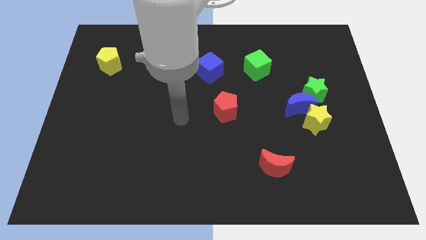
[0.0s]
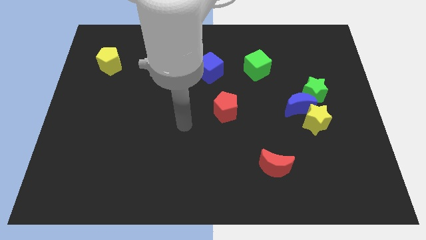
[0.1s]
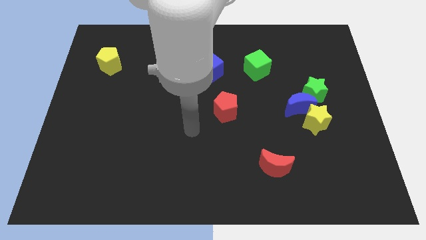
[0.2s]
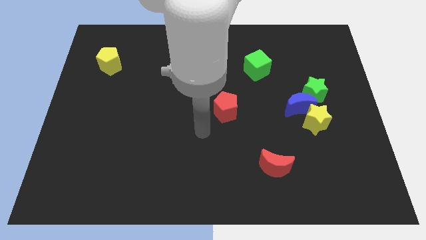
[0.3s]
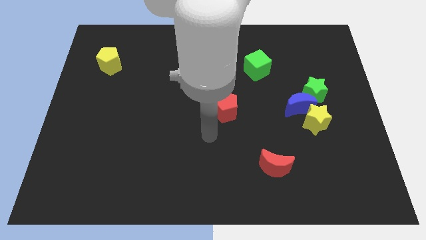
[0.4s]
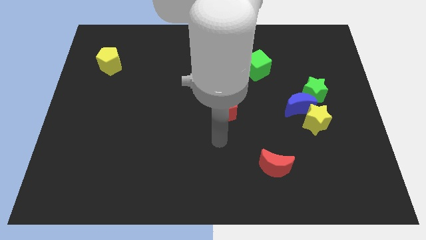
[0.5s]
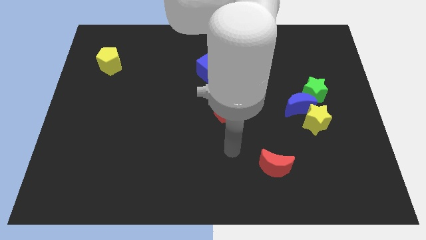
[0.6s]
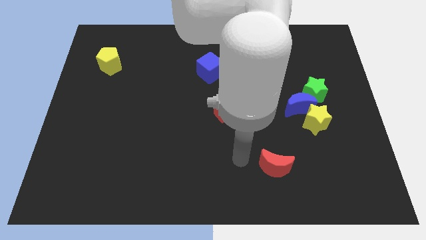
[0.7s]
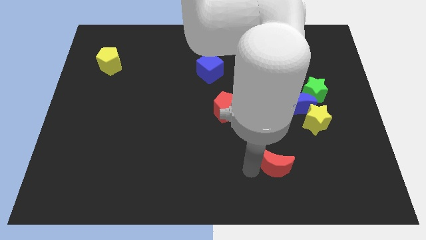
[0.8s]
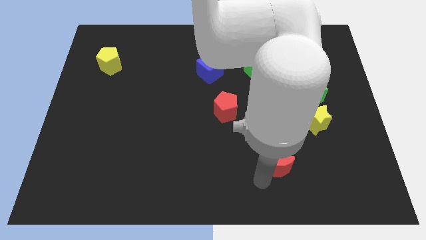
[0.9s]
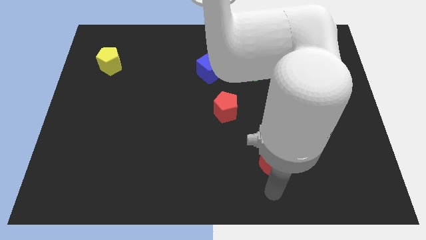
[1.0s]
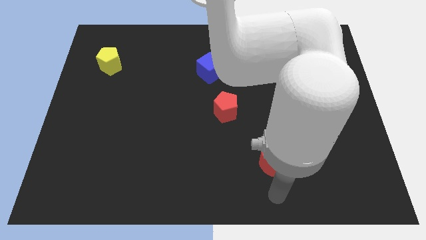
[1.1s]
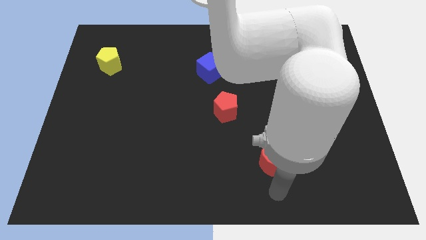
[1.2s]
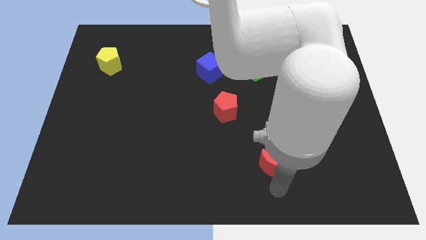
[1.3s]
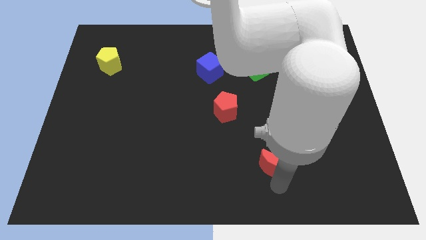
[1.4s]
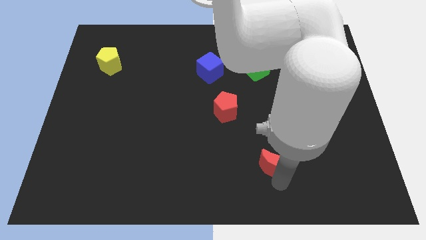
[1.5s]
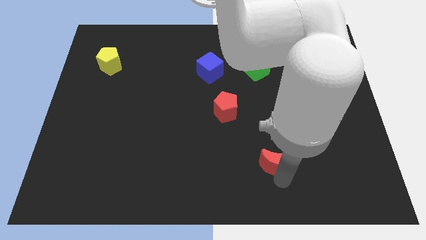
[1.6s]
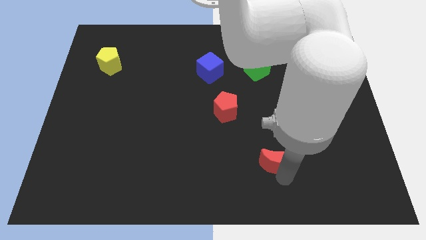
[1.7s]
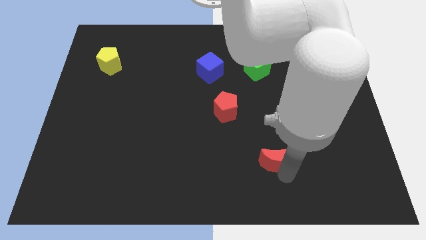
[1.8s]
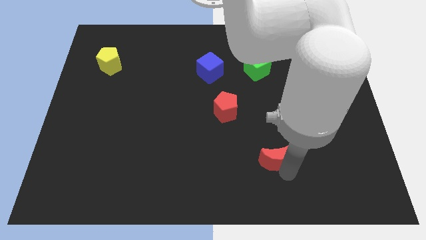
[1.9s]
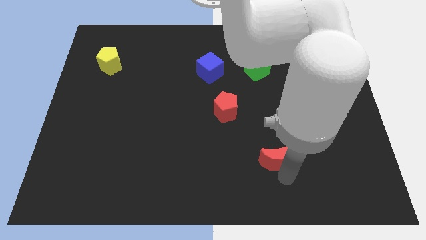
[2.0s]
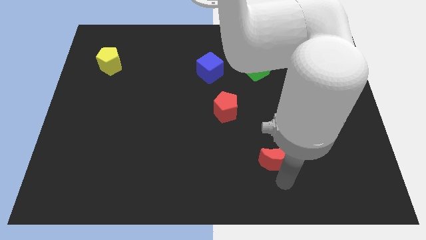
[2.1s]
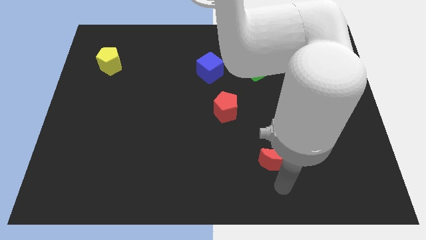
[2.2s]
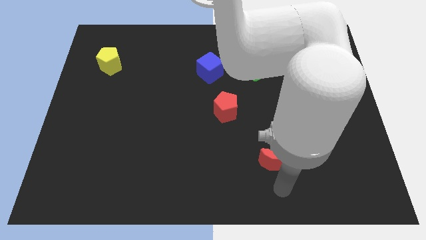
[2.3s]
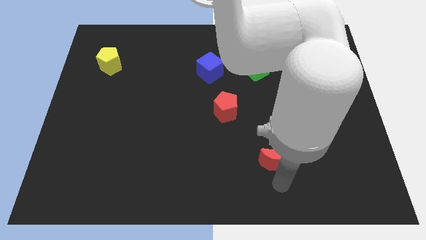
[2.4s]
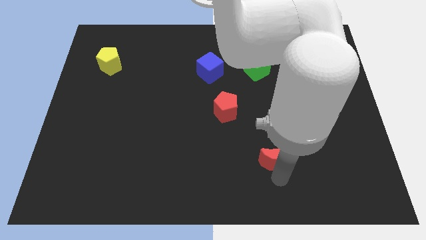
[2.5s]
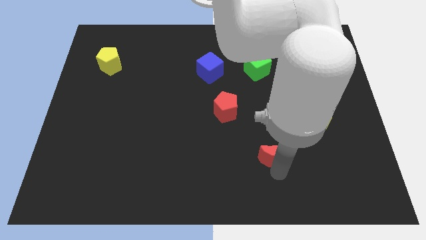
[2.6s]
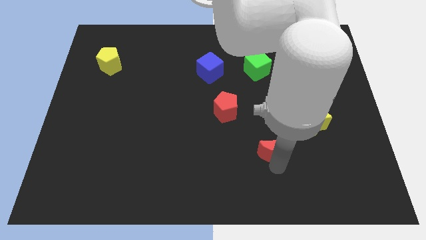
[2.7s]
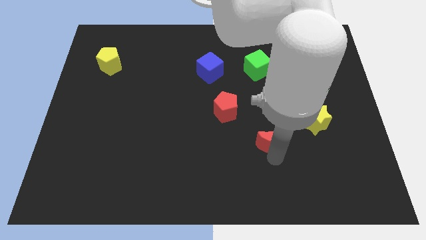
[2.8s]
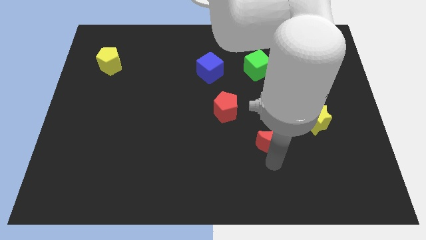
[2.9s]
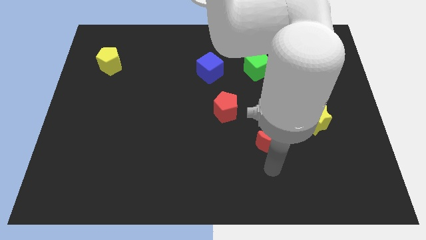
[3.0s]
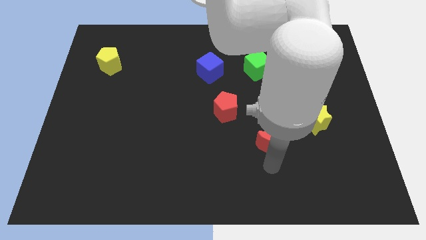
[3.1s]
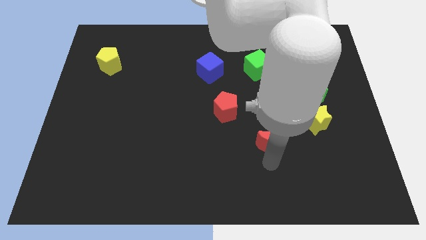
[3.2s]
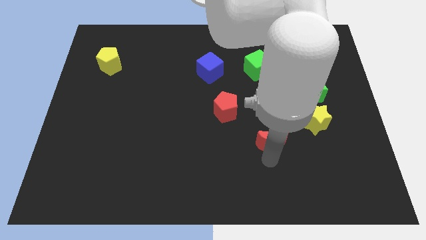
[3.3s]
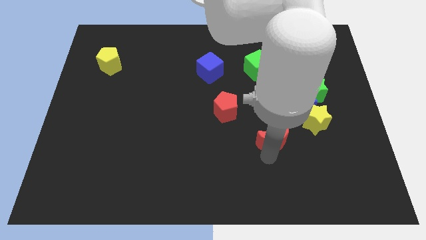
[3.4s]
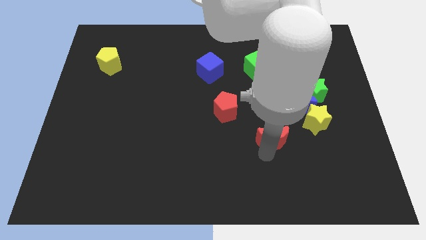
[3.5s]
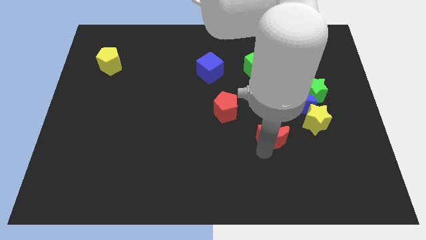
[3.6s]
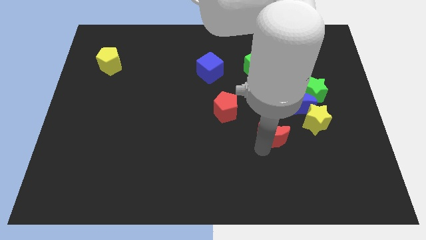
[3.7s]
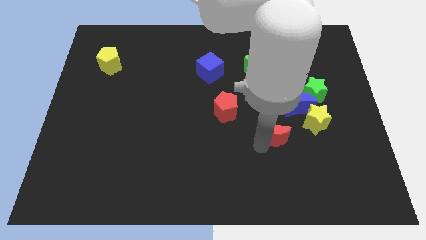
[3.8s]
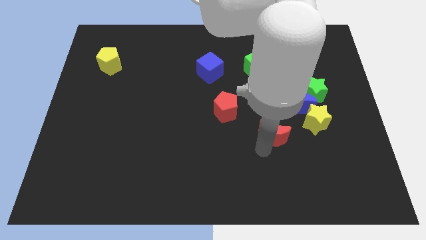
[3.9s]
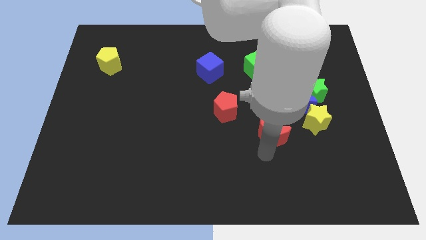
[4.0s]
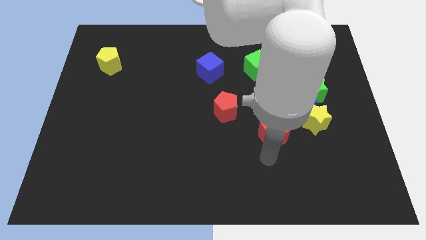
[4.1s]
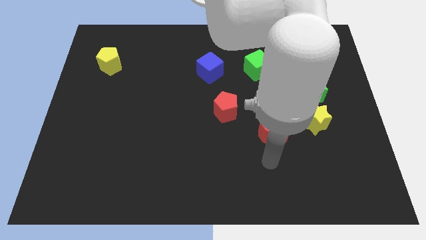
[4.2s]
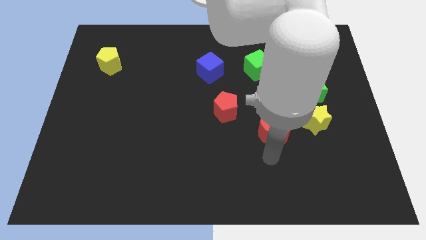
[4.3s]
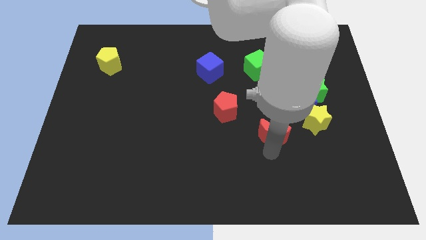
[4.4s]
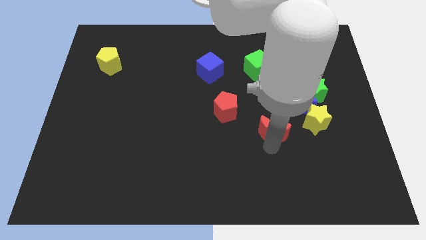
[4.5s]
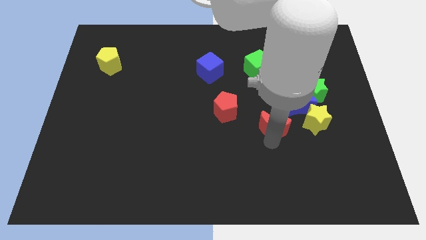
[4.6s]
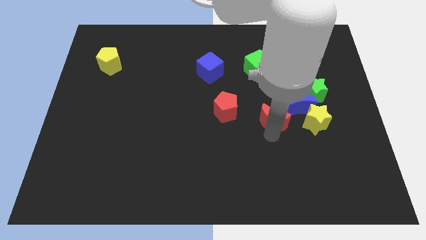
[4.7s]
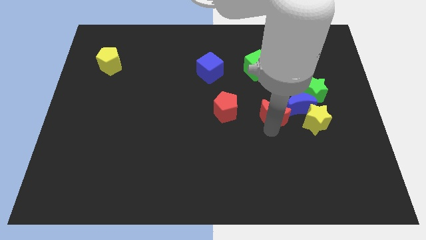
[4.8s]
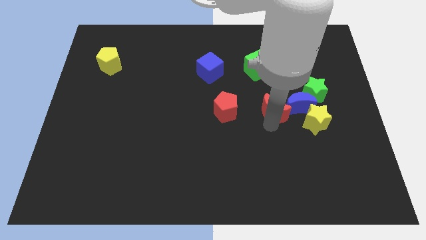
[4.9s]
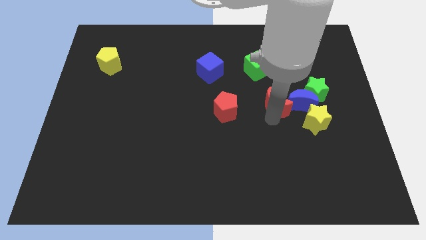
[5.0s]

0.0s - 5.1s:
put the red moon to the top left of the blue moon

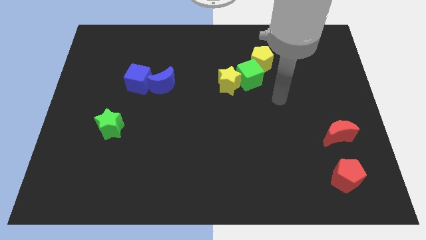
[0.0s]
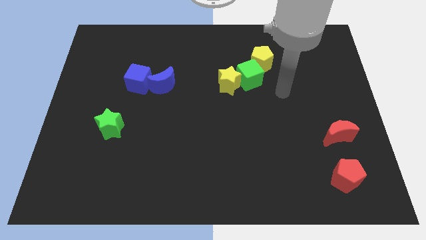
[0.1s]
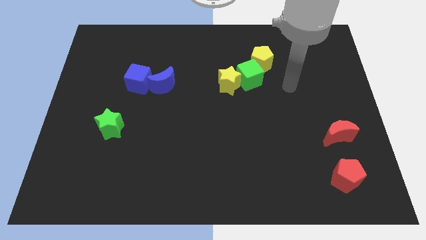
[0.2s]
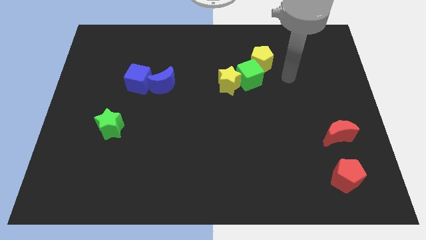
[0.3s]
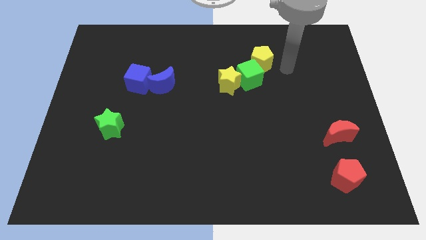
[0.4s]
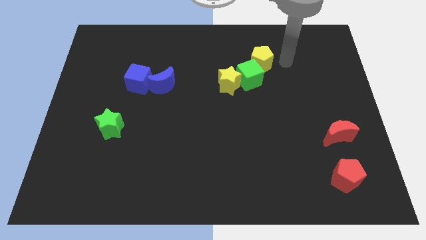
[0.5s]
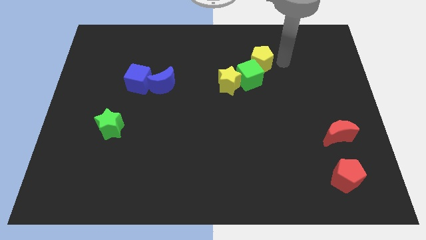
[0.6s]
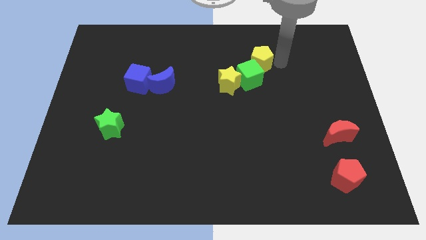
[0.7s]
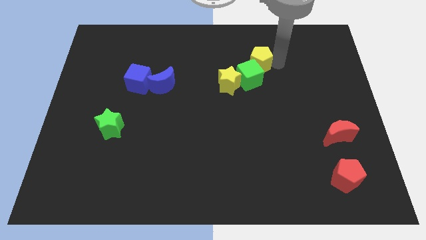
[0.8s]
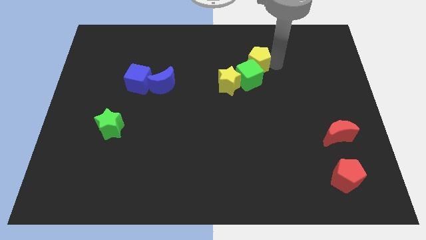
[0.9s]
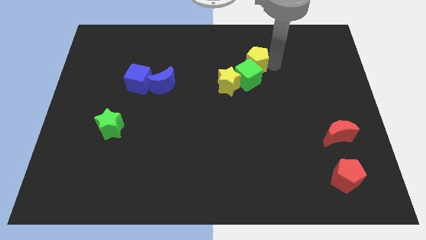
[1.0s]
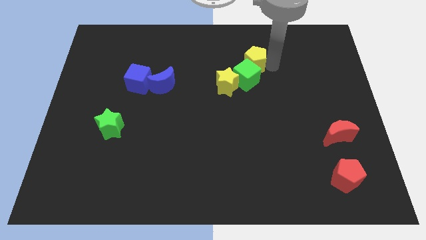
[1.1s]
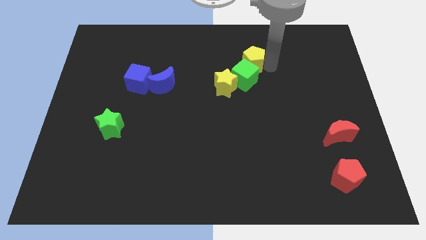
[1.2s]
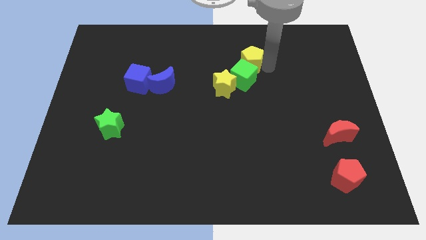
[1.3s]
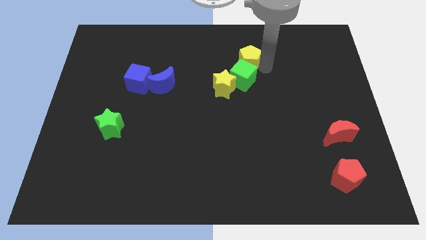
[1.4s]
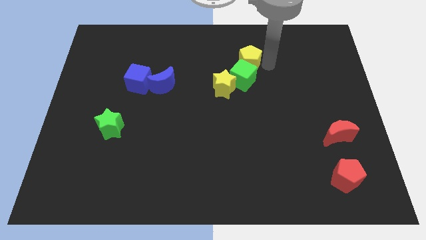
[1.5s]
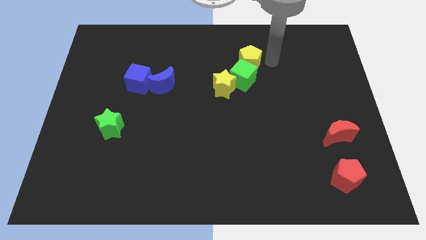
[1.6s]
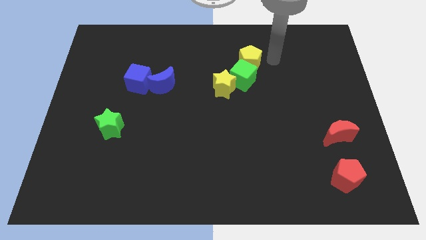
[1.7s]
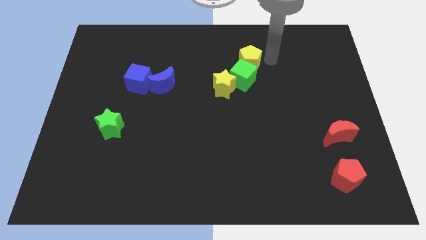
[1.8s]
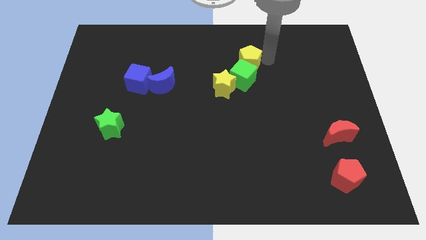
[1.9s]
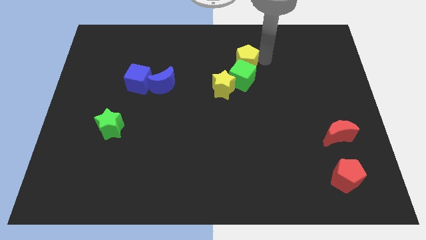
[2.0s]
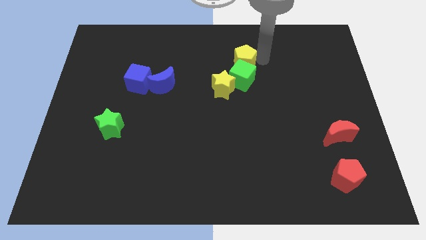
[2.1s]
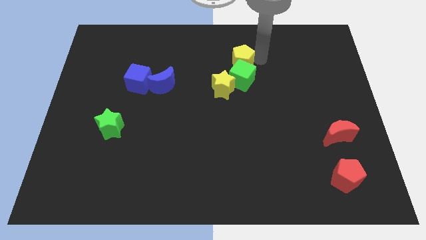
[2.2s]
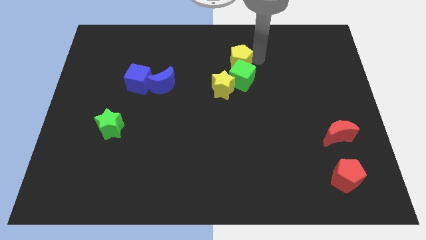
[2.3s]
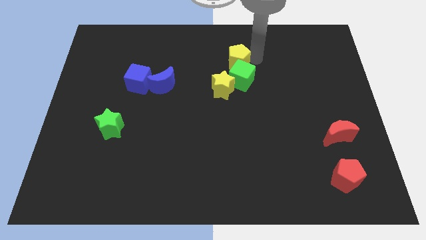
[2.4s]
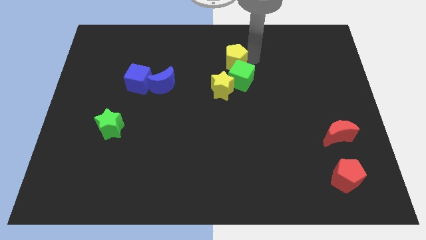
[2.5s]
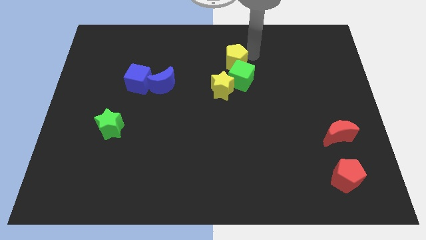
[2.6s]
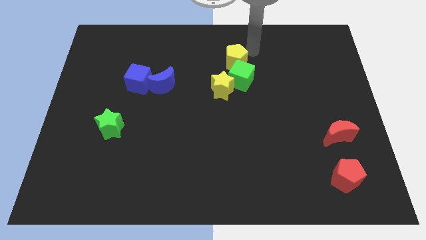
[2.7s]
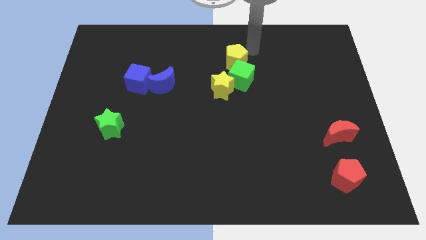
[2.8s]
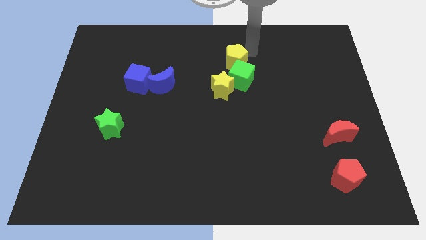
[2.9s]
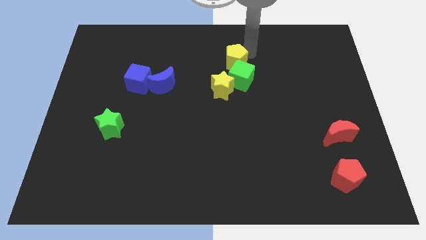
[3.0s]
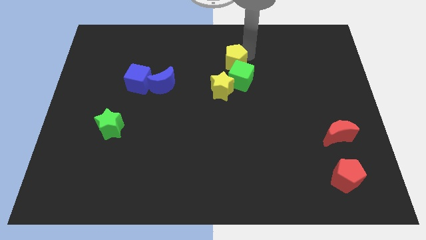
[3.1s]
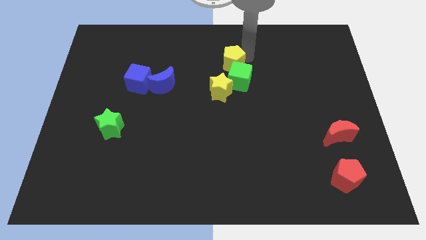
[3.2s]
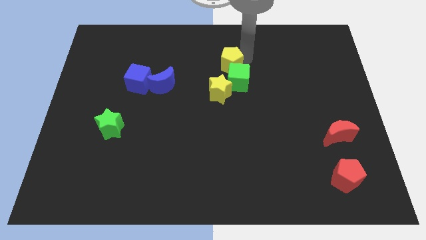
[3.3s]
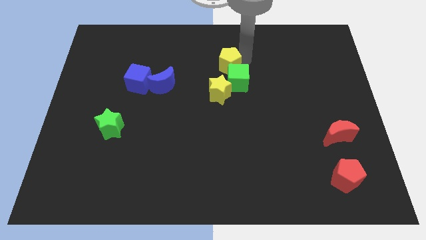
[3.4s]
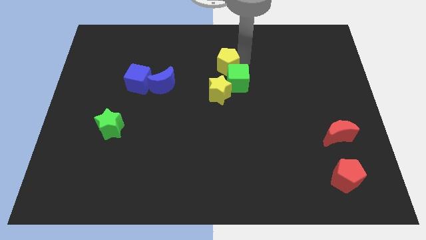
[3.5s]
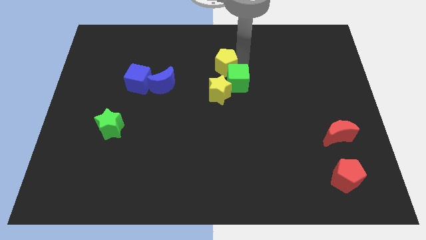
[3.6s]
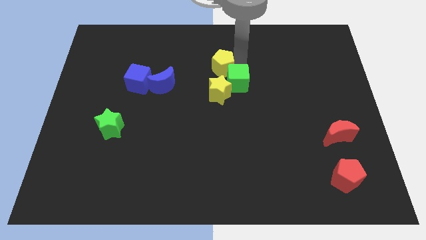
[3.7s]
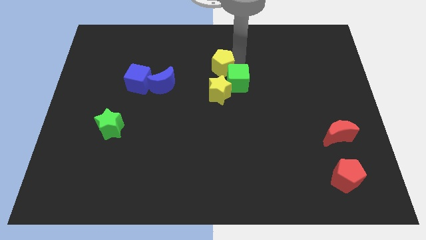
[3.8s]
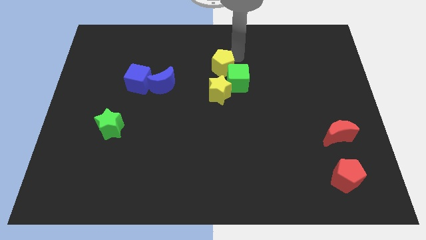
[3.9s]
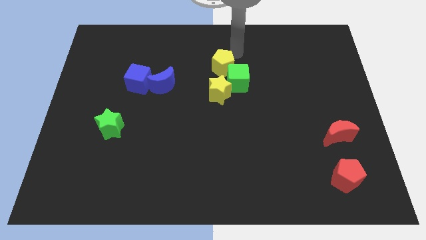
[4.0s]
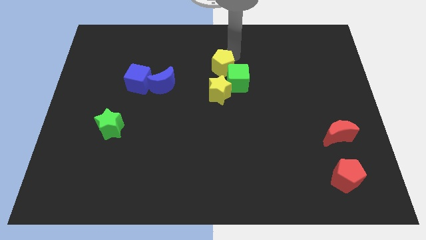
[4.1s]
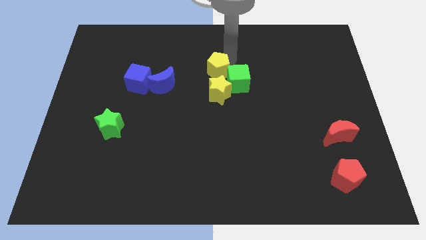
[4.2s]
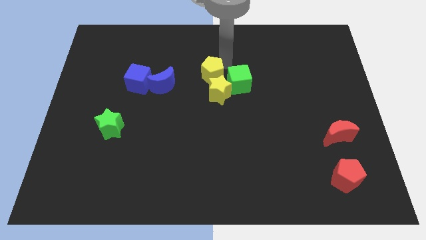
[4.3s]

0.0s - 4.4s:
push the yellow pentagon just right of the blue moon
